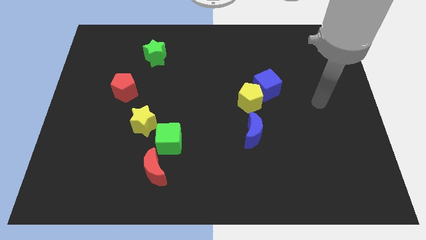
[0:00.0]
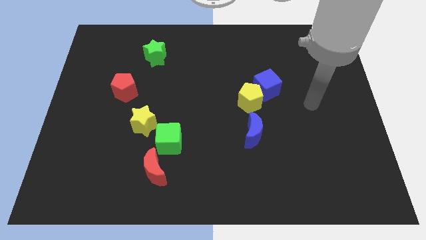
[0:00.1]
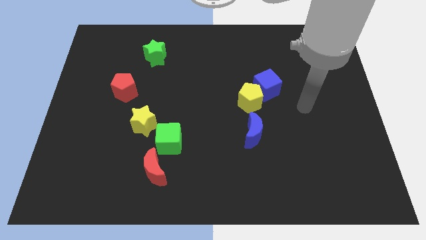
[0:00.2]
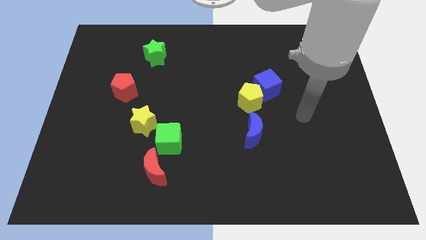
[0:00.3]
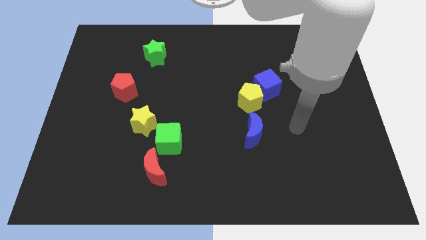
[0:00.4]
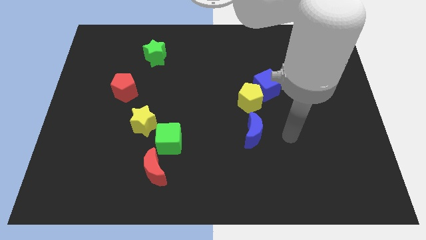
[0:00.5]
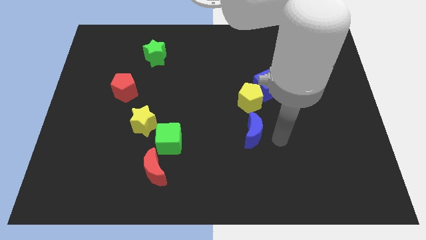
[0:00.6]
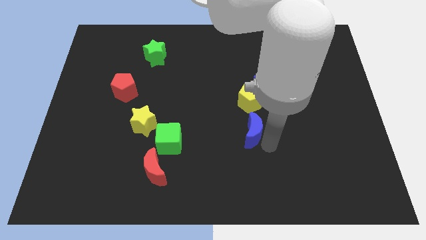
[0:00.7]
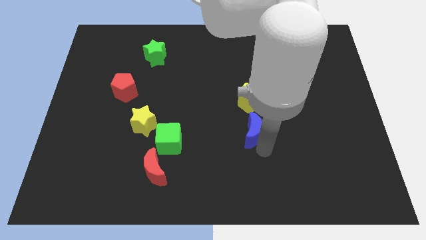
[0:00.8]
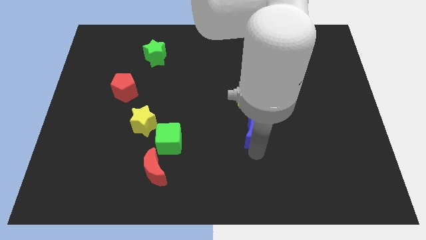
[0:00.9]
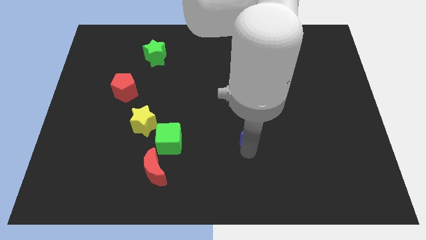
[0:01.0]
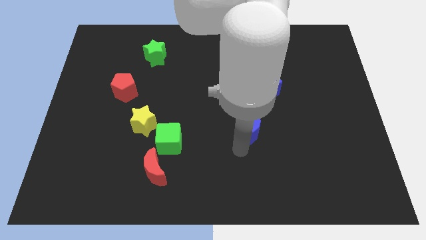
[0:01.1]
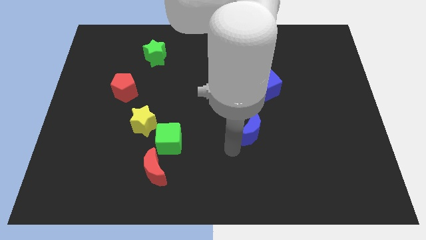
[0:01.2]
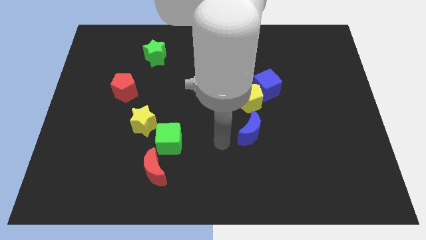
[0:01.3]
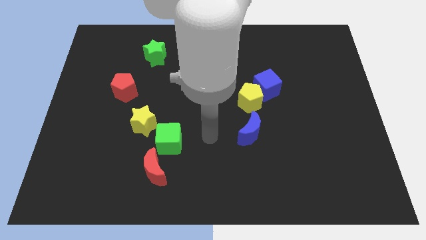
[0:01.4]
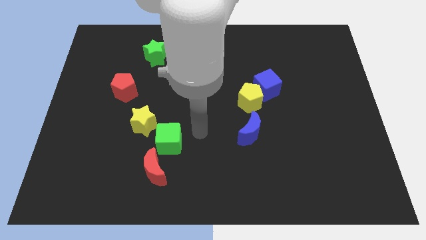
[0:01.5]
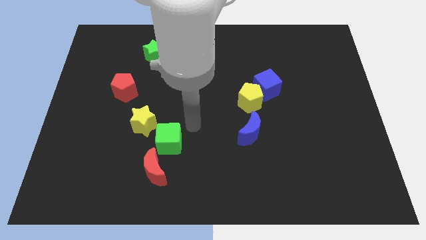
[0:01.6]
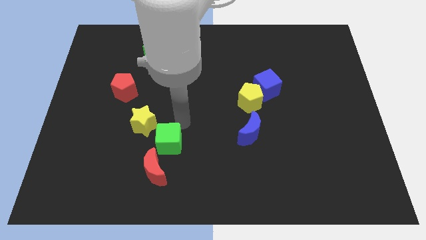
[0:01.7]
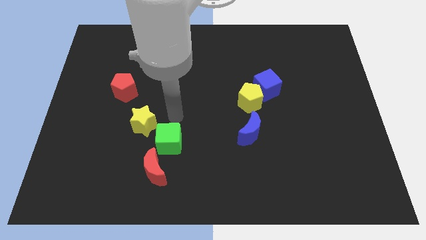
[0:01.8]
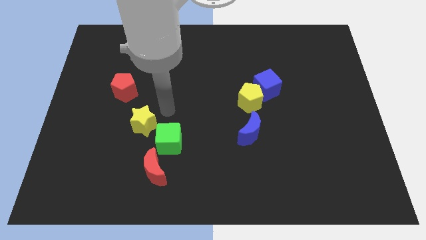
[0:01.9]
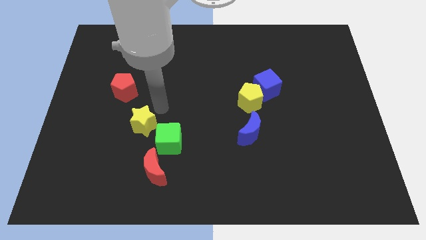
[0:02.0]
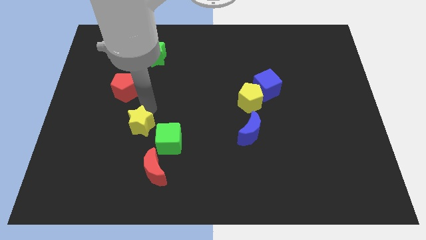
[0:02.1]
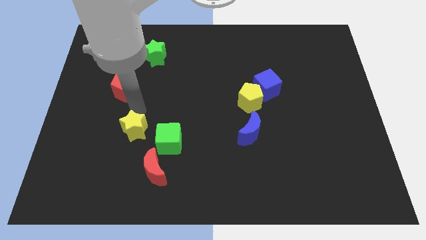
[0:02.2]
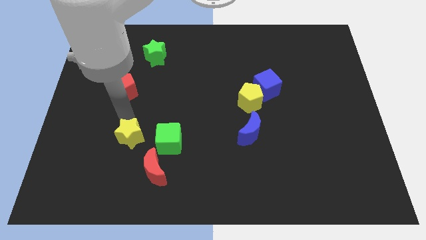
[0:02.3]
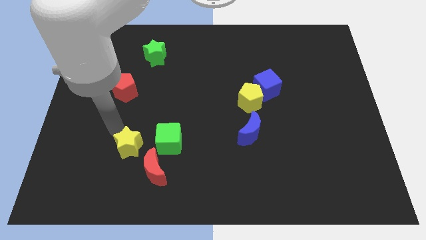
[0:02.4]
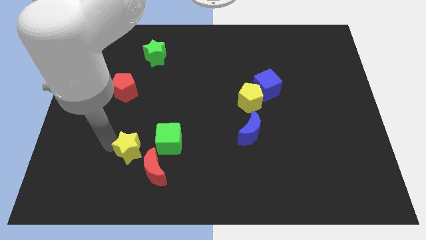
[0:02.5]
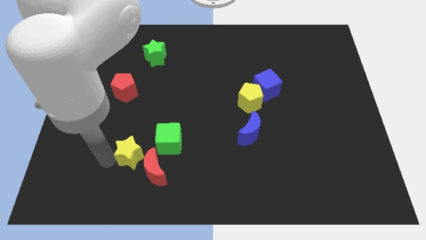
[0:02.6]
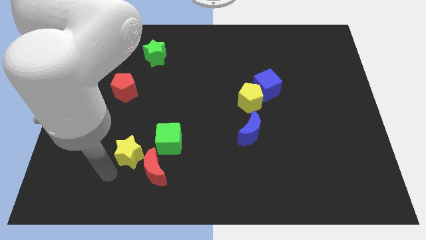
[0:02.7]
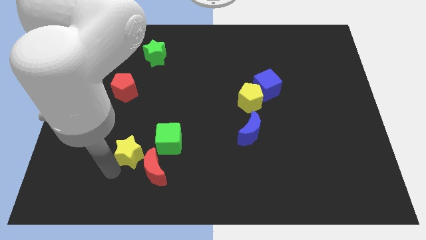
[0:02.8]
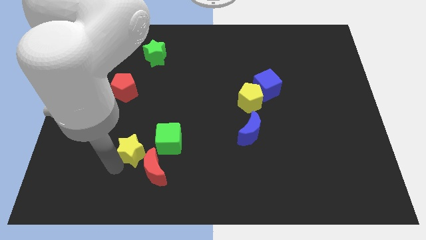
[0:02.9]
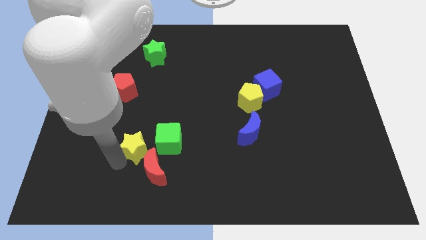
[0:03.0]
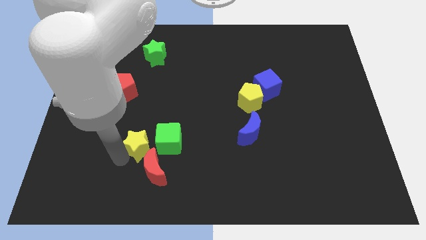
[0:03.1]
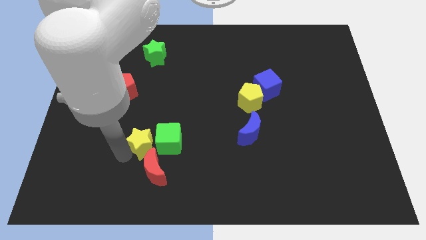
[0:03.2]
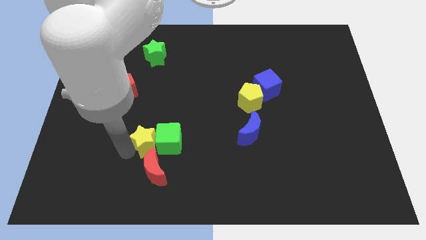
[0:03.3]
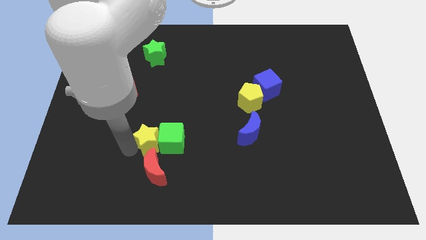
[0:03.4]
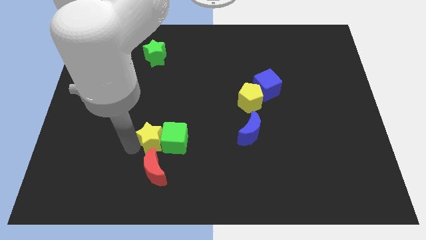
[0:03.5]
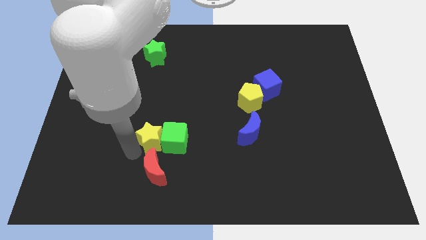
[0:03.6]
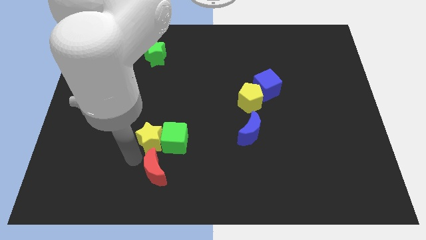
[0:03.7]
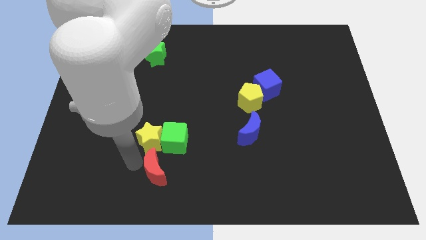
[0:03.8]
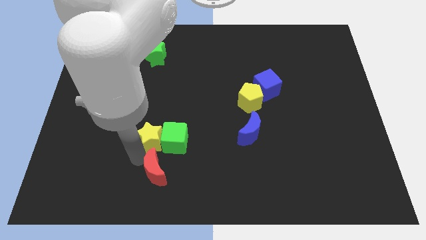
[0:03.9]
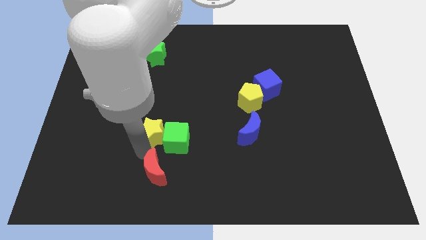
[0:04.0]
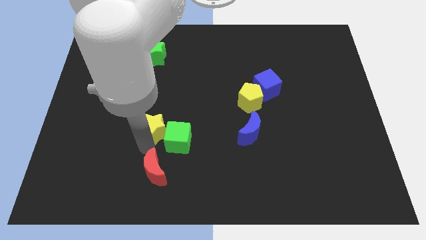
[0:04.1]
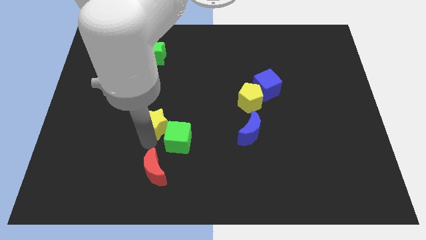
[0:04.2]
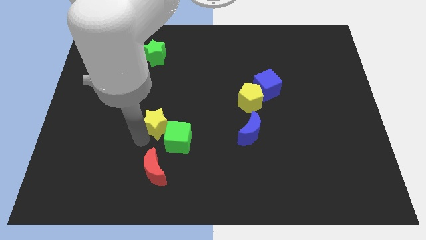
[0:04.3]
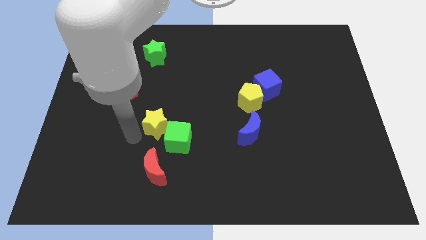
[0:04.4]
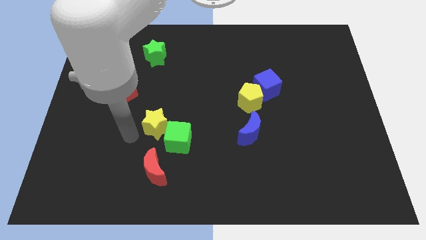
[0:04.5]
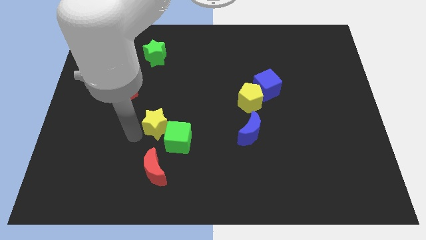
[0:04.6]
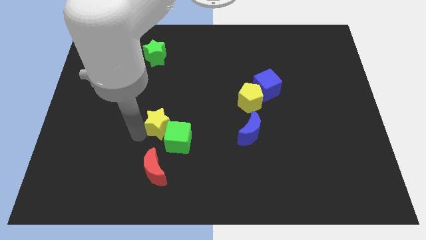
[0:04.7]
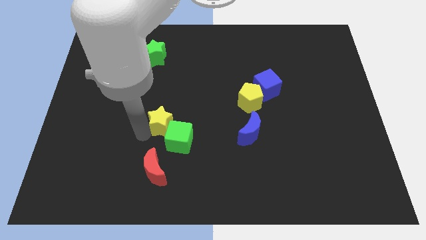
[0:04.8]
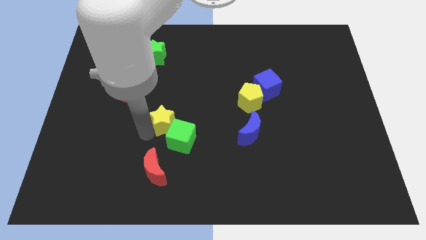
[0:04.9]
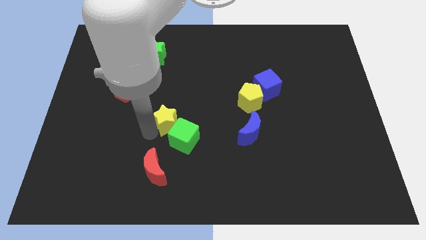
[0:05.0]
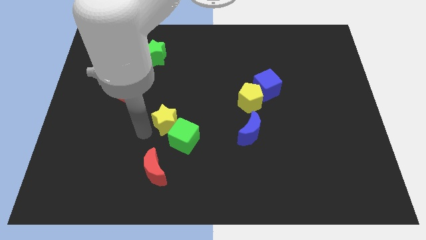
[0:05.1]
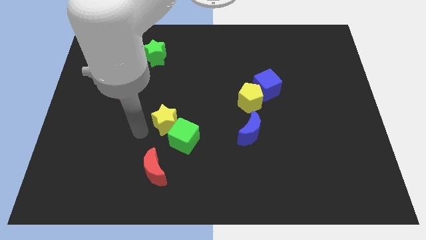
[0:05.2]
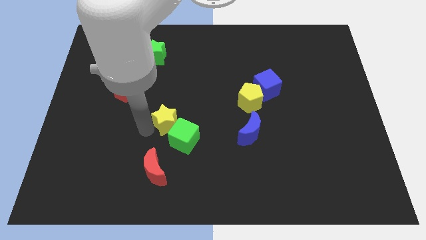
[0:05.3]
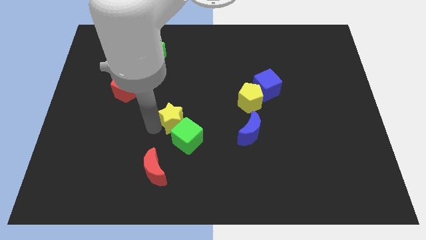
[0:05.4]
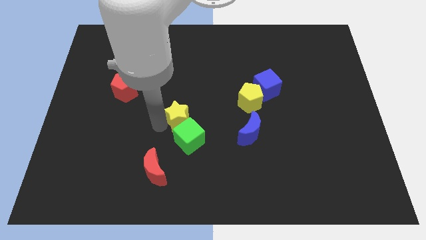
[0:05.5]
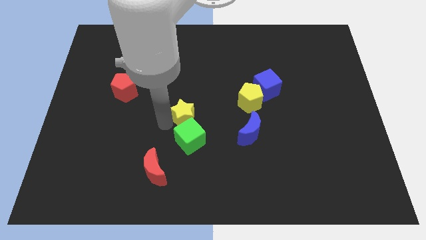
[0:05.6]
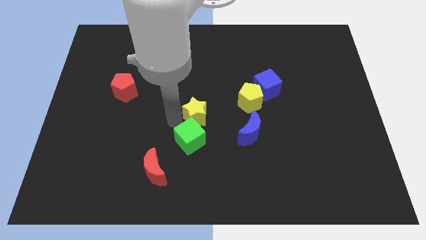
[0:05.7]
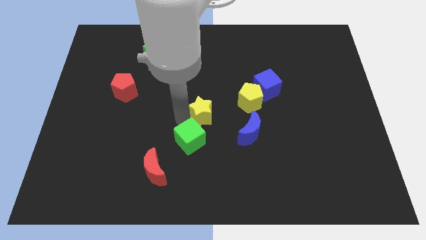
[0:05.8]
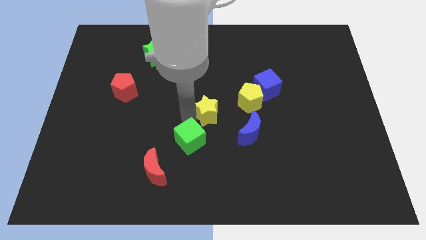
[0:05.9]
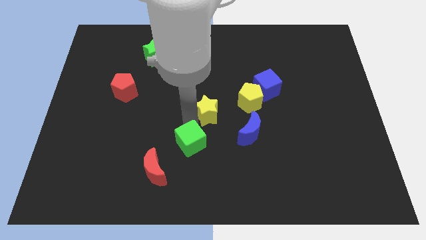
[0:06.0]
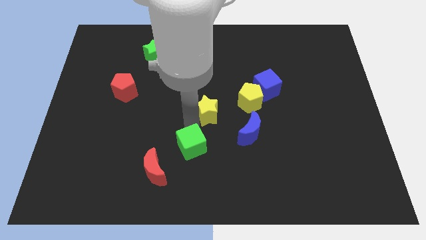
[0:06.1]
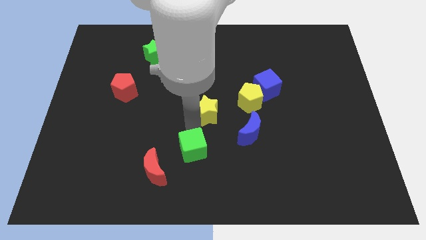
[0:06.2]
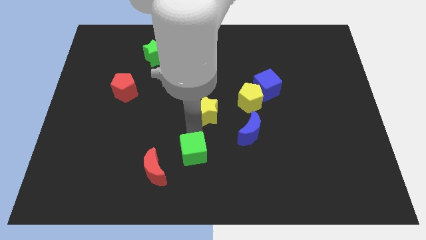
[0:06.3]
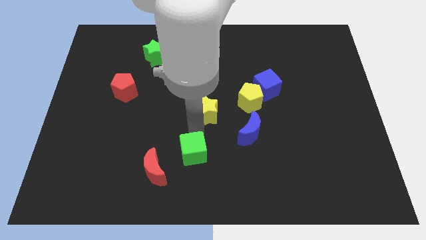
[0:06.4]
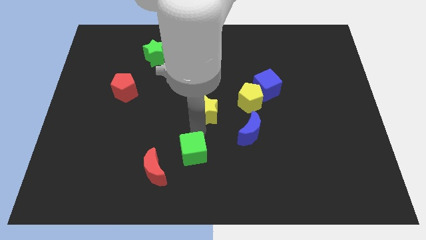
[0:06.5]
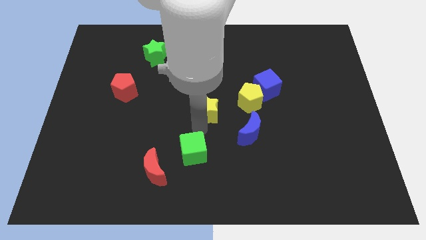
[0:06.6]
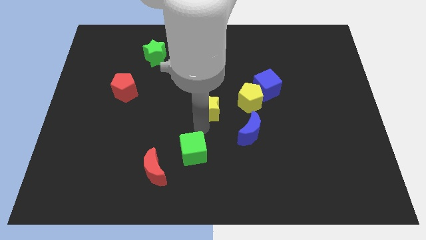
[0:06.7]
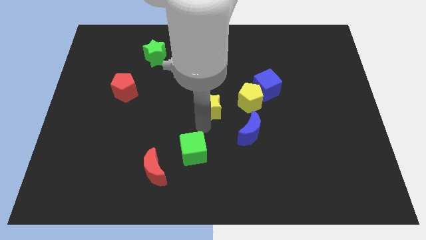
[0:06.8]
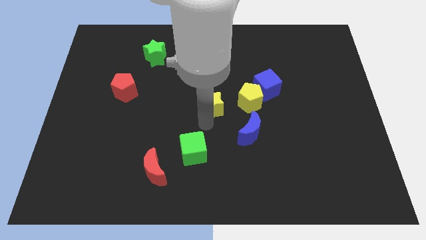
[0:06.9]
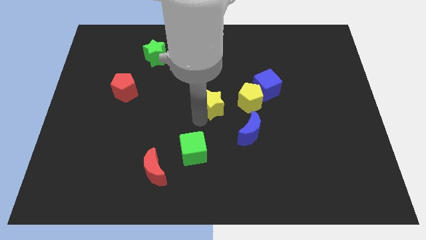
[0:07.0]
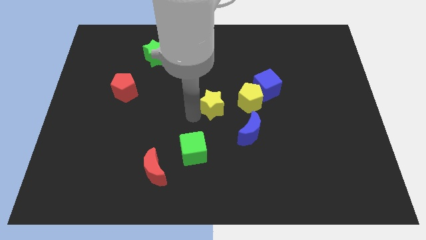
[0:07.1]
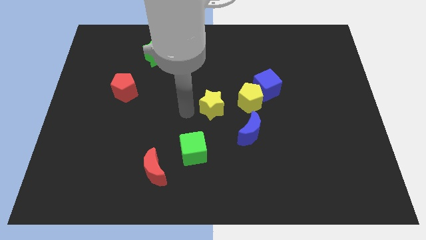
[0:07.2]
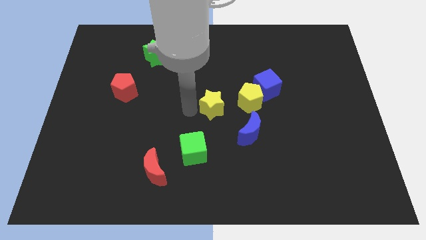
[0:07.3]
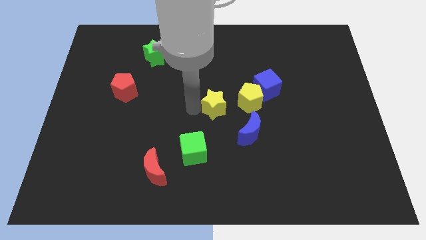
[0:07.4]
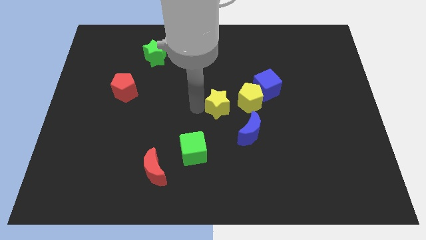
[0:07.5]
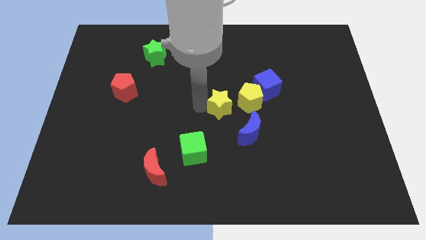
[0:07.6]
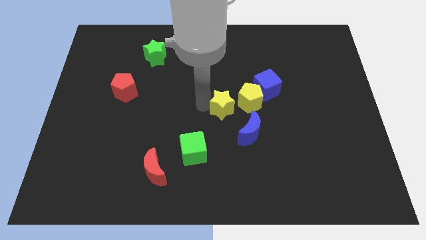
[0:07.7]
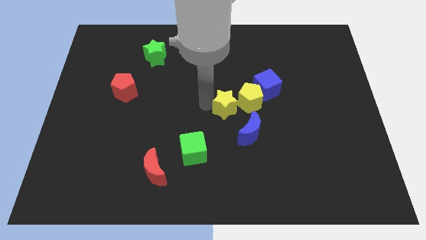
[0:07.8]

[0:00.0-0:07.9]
slide the yellow star close to the yellow pentagon
